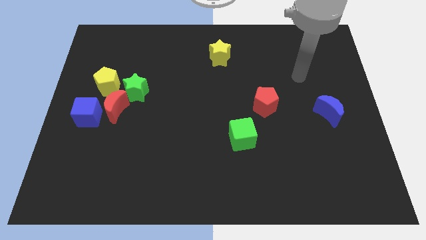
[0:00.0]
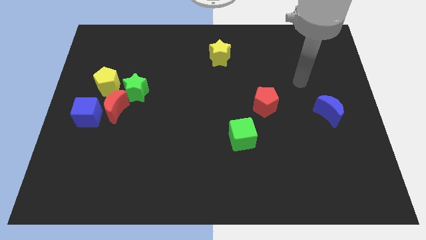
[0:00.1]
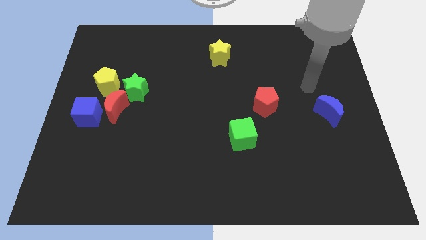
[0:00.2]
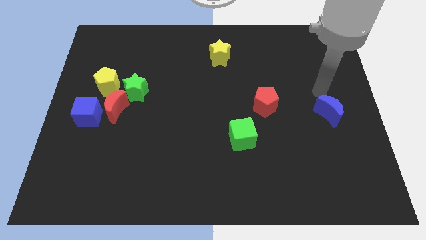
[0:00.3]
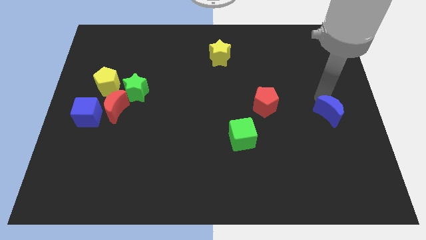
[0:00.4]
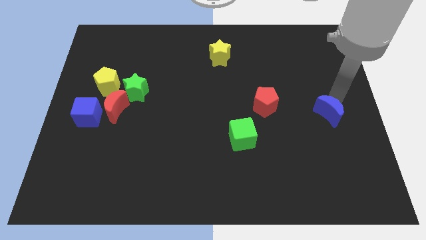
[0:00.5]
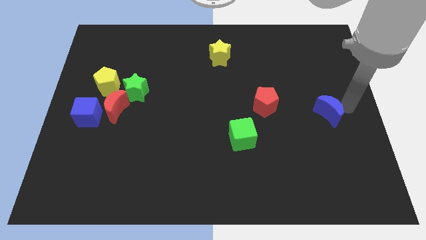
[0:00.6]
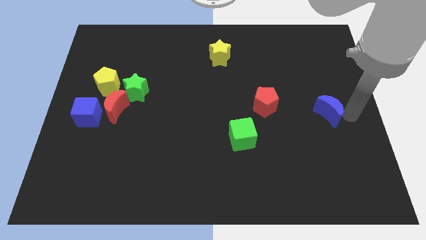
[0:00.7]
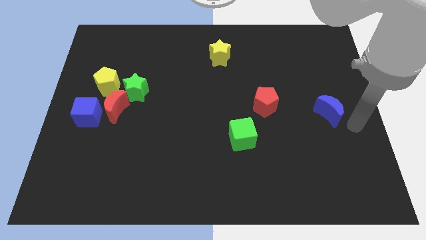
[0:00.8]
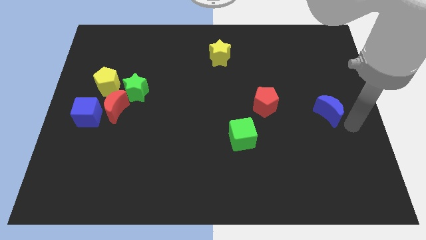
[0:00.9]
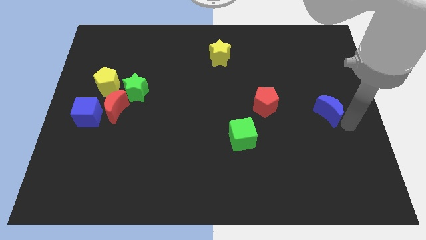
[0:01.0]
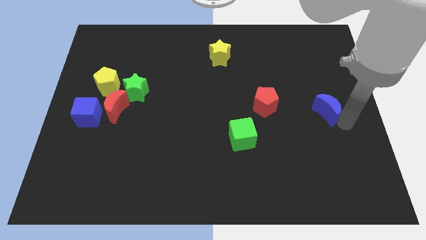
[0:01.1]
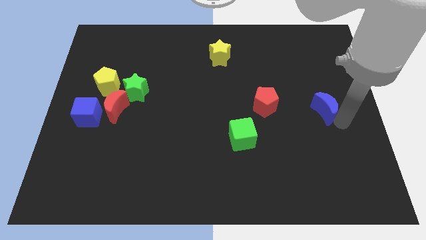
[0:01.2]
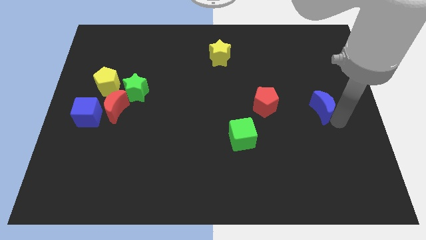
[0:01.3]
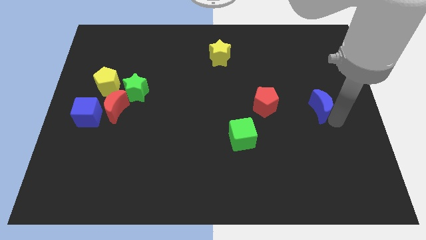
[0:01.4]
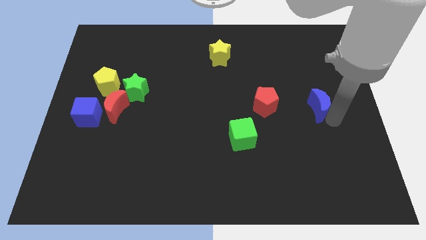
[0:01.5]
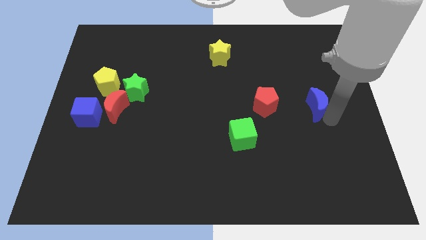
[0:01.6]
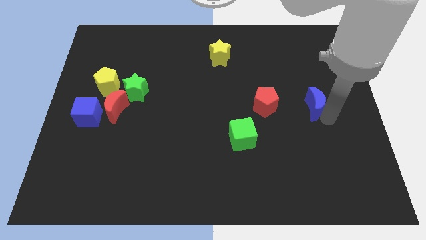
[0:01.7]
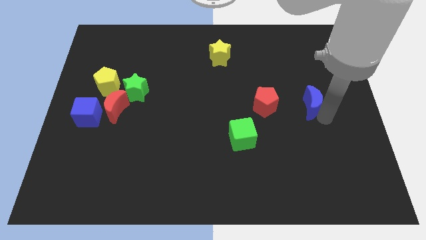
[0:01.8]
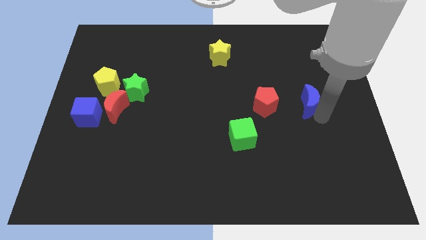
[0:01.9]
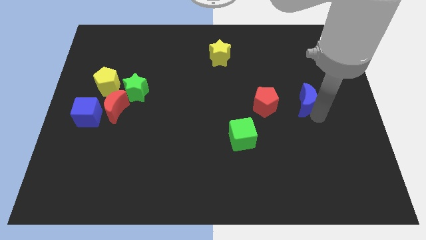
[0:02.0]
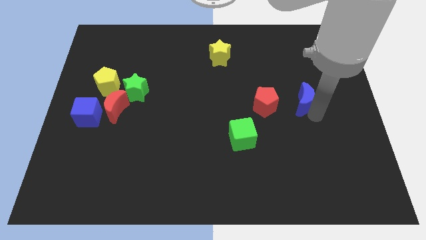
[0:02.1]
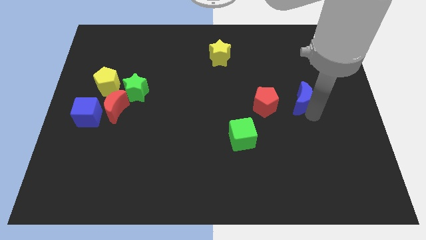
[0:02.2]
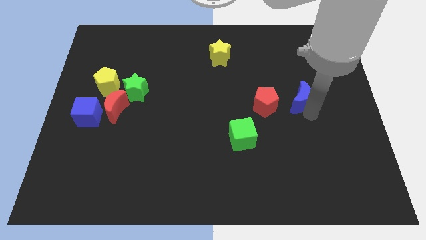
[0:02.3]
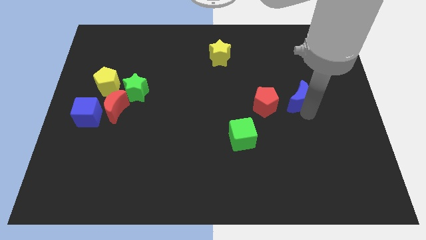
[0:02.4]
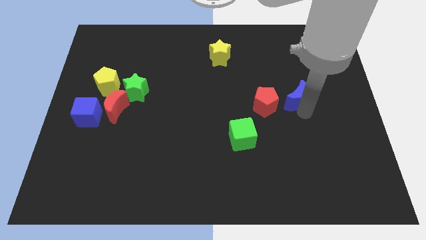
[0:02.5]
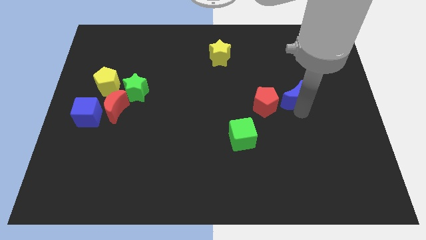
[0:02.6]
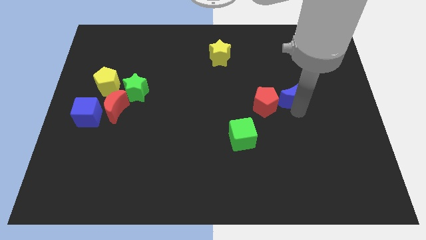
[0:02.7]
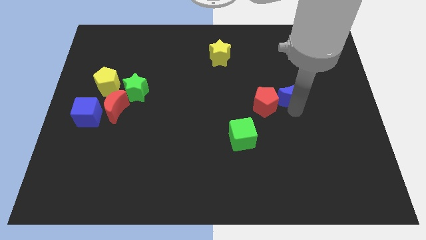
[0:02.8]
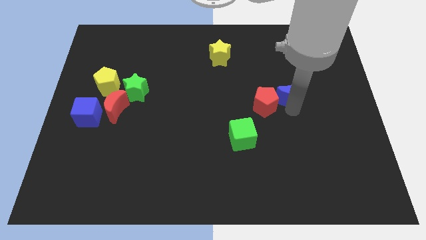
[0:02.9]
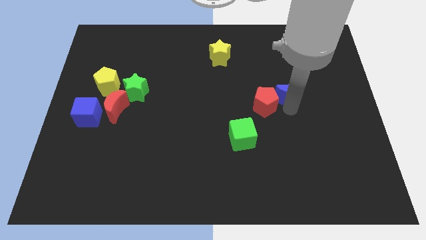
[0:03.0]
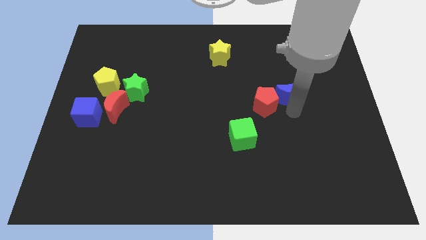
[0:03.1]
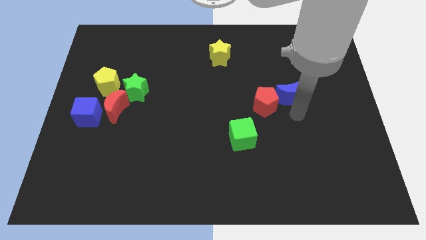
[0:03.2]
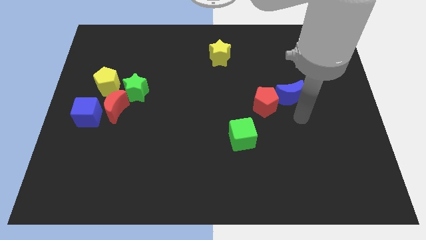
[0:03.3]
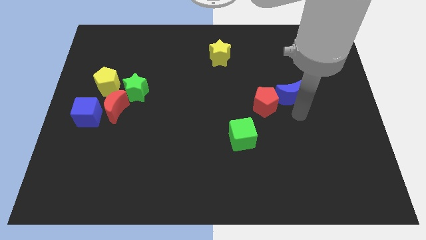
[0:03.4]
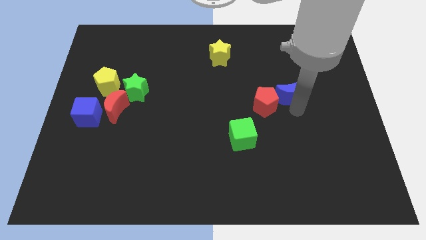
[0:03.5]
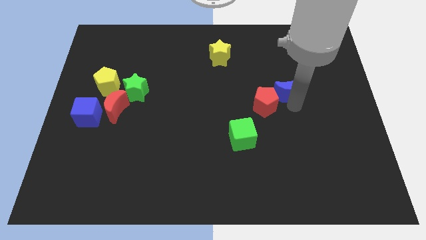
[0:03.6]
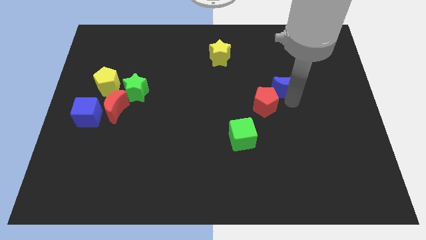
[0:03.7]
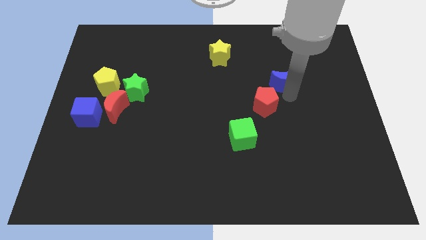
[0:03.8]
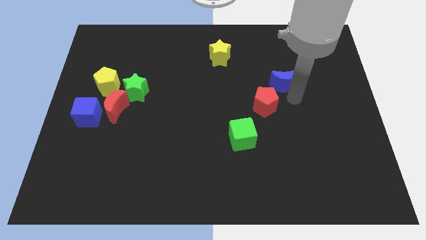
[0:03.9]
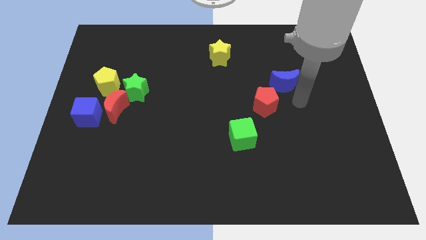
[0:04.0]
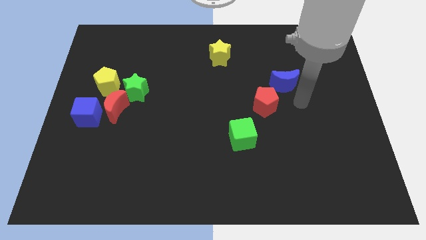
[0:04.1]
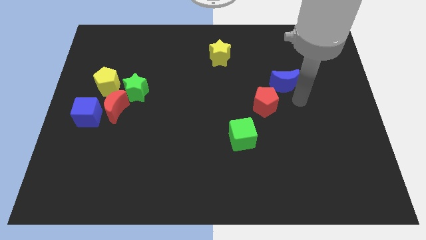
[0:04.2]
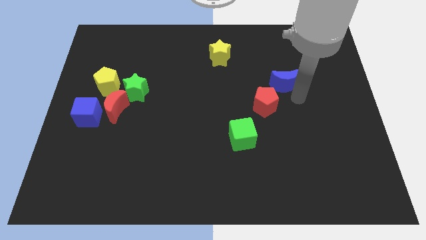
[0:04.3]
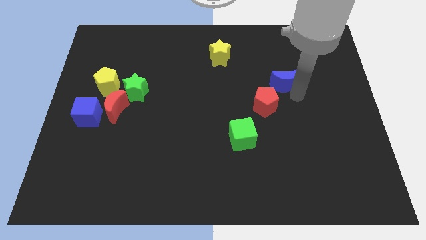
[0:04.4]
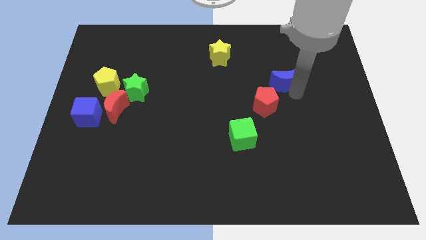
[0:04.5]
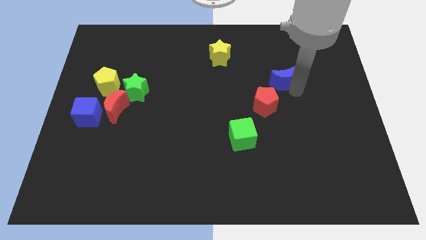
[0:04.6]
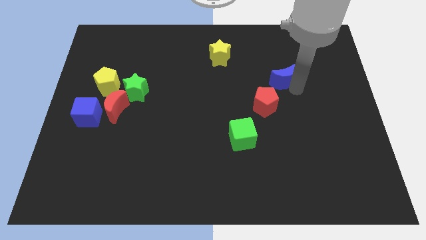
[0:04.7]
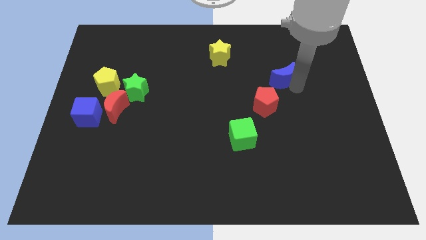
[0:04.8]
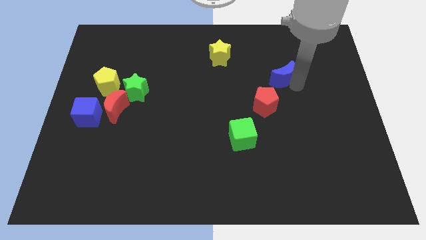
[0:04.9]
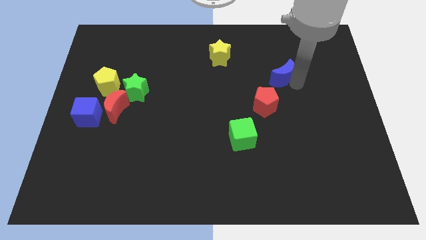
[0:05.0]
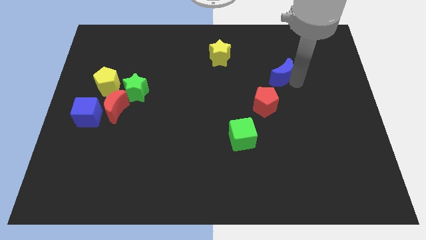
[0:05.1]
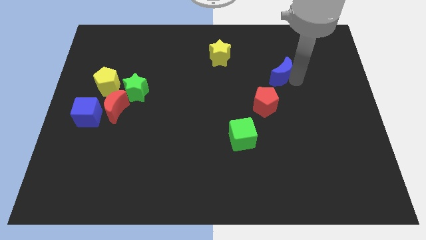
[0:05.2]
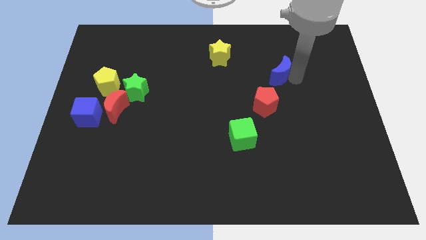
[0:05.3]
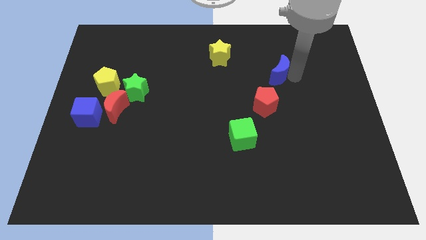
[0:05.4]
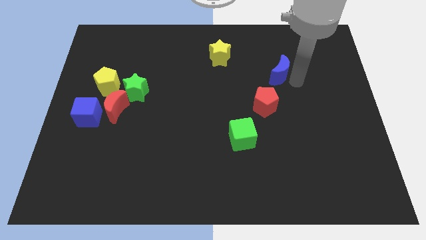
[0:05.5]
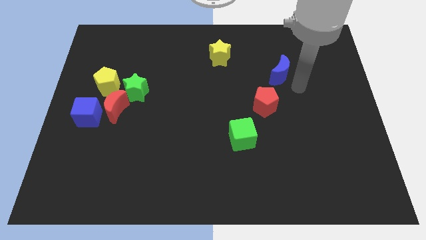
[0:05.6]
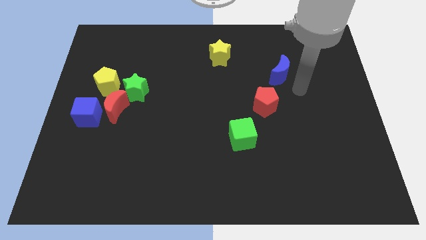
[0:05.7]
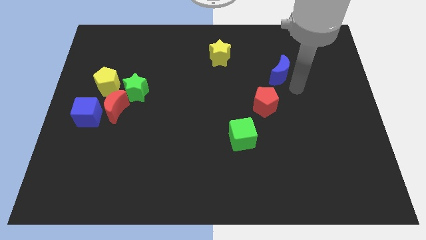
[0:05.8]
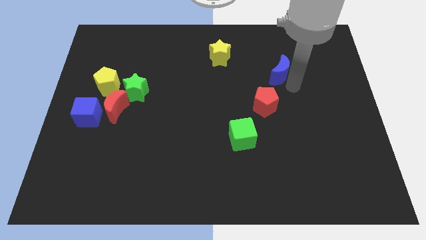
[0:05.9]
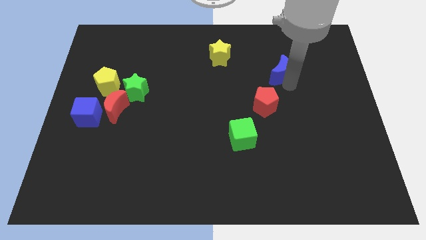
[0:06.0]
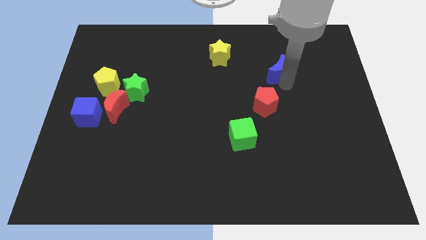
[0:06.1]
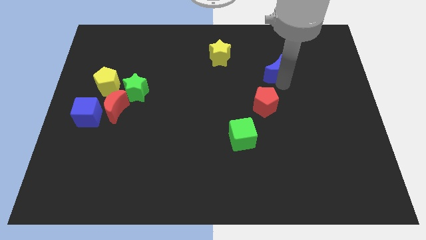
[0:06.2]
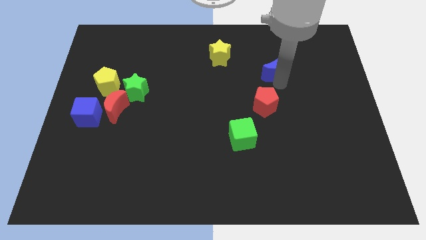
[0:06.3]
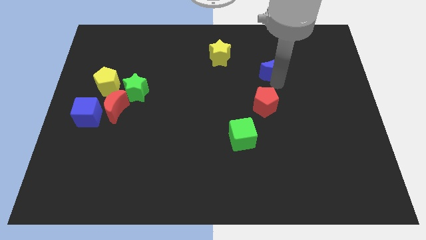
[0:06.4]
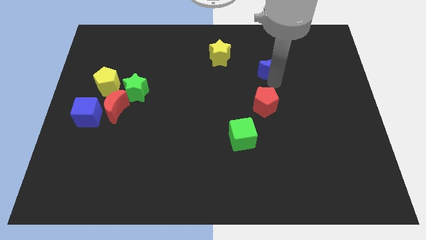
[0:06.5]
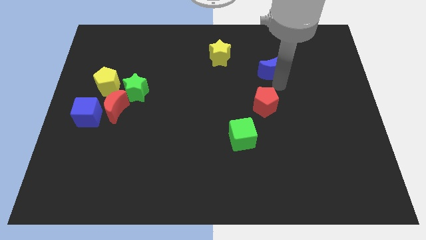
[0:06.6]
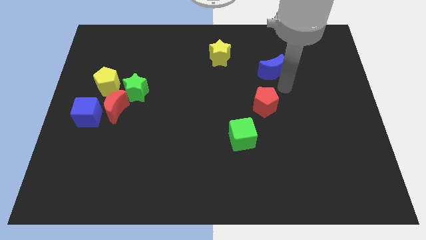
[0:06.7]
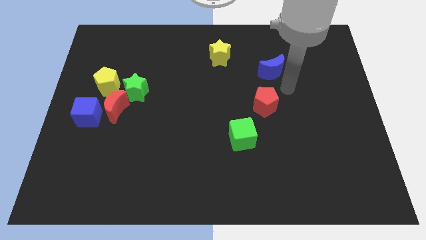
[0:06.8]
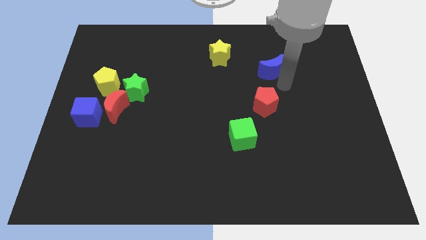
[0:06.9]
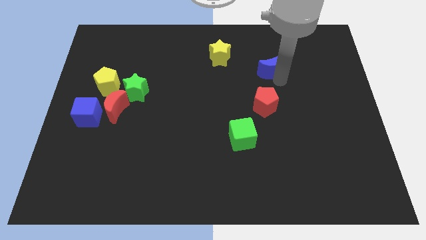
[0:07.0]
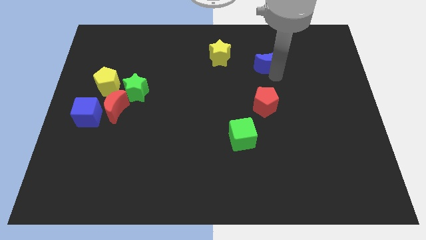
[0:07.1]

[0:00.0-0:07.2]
move the blue moon just right of the yellow star
